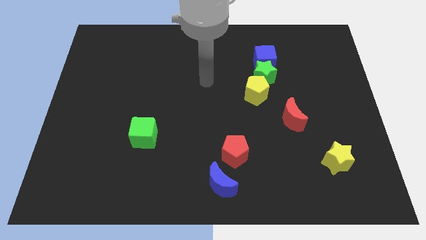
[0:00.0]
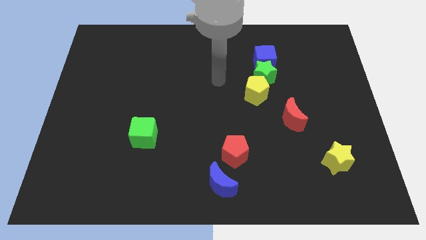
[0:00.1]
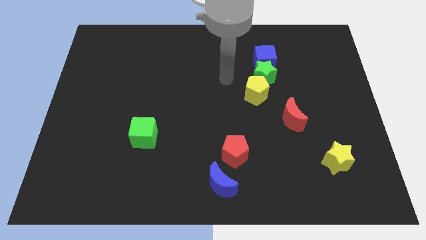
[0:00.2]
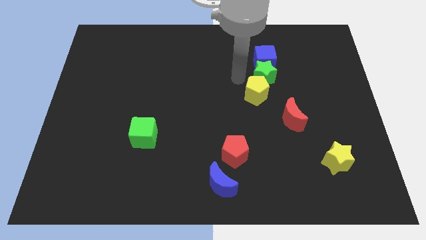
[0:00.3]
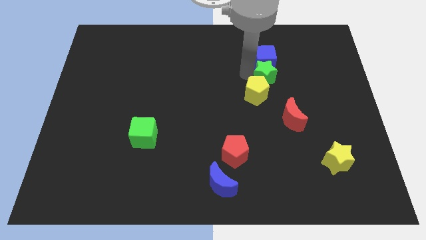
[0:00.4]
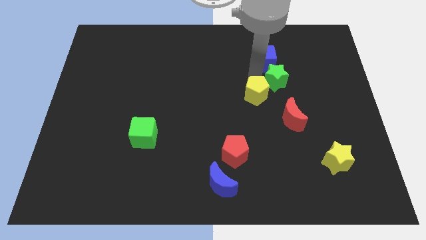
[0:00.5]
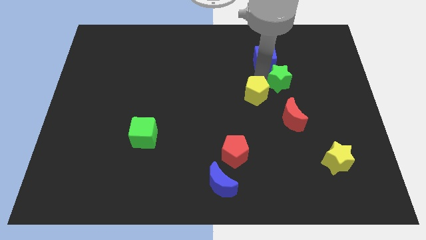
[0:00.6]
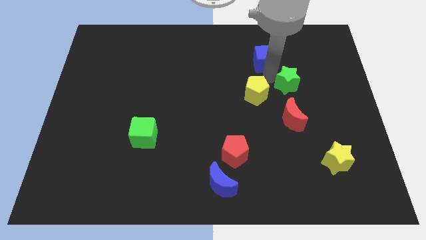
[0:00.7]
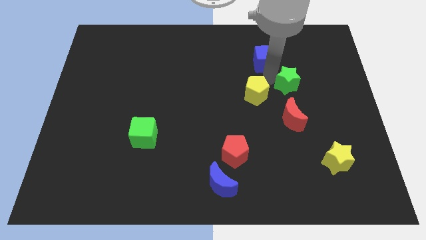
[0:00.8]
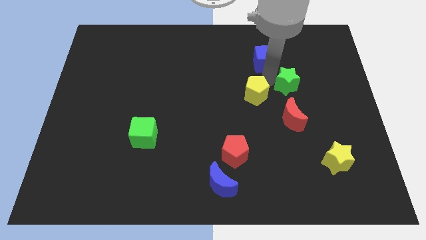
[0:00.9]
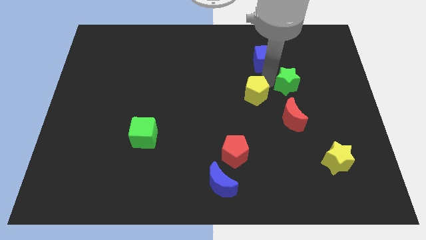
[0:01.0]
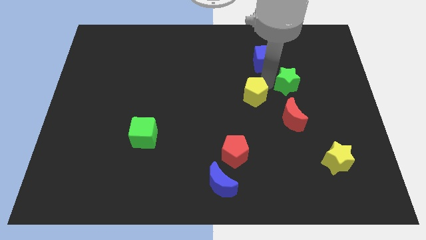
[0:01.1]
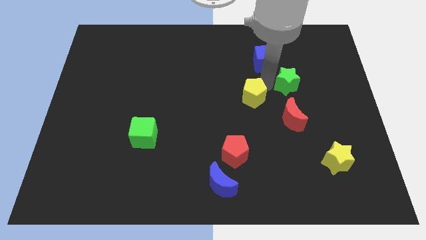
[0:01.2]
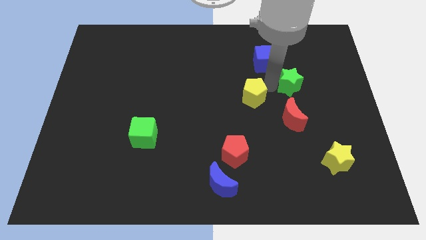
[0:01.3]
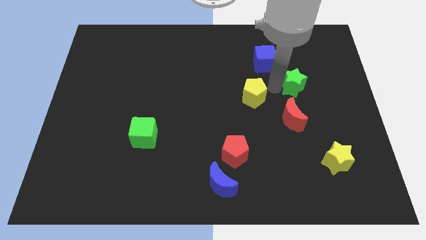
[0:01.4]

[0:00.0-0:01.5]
separate the yellow pentagon from the green star

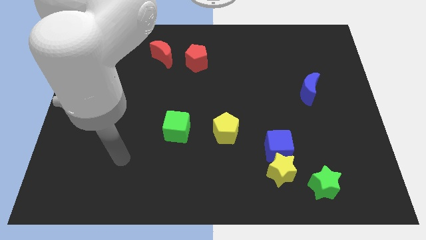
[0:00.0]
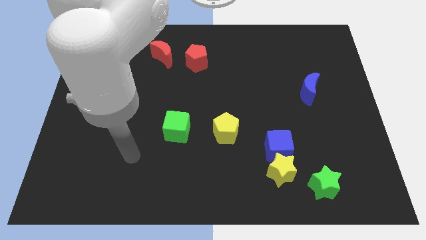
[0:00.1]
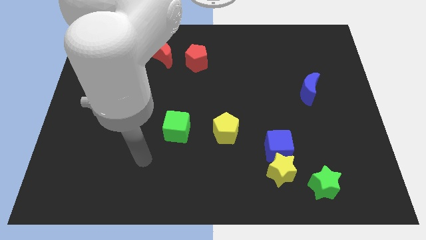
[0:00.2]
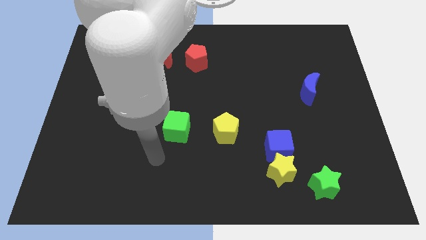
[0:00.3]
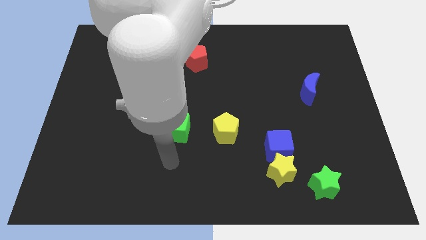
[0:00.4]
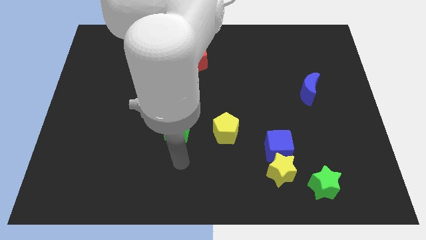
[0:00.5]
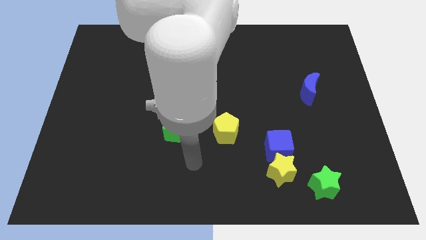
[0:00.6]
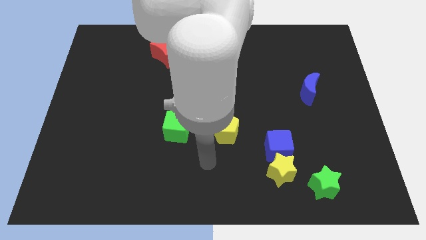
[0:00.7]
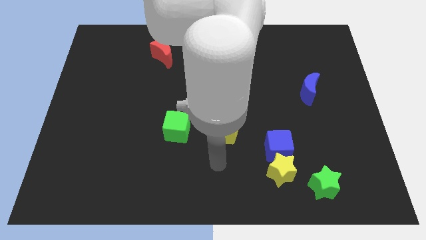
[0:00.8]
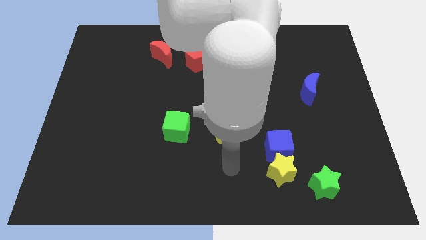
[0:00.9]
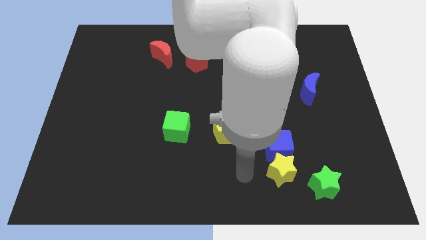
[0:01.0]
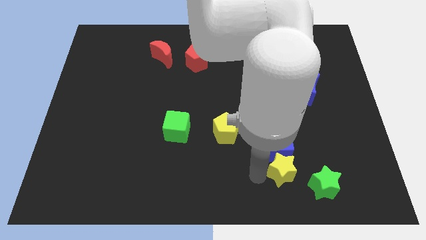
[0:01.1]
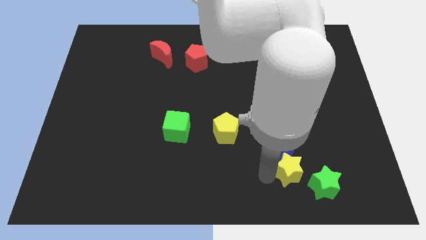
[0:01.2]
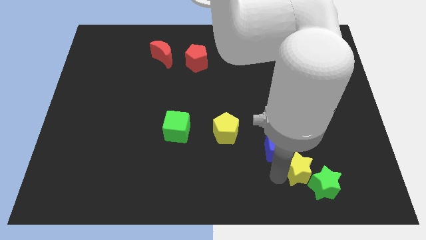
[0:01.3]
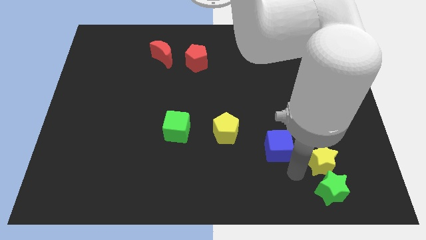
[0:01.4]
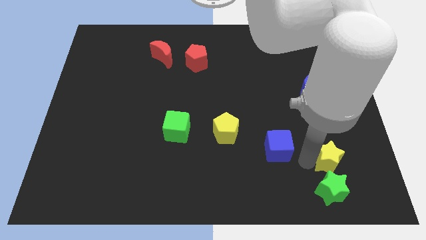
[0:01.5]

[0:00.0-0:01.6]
separate the blue cube from the yellow star

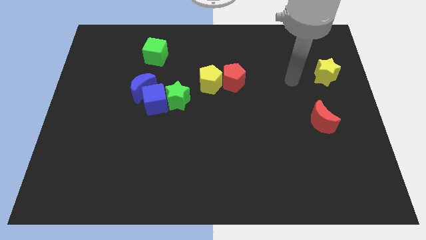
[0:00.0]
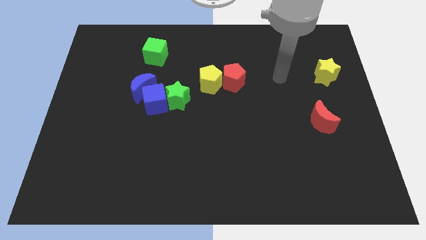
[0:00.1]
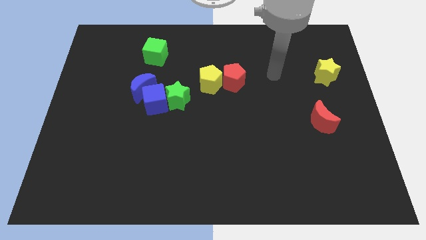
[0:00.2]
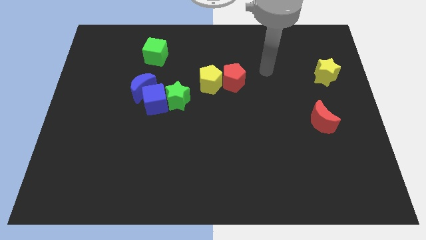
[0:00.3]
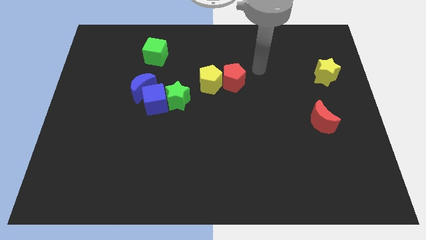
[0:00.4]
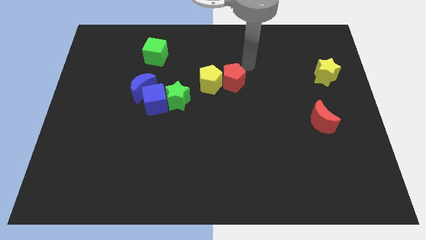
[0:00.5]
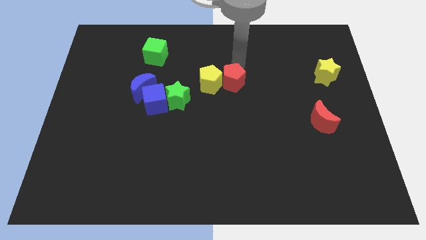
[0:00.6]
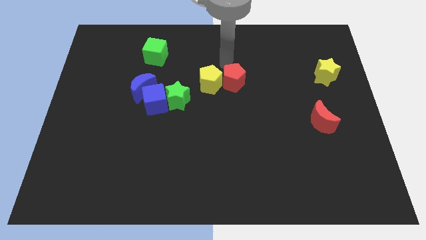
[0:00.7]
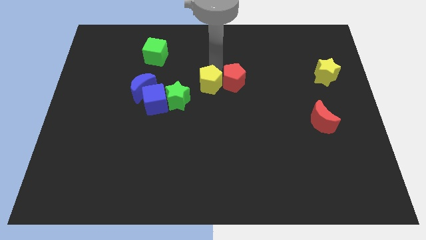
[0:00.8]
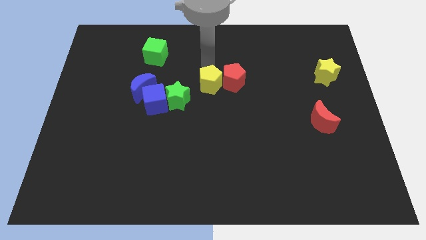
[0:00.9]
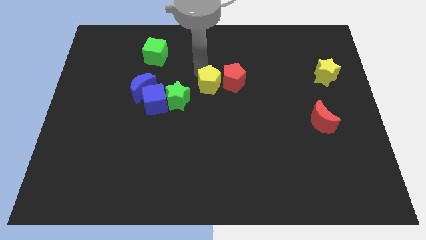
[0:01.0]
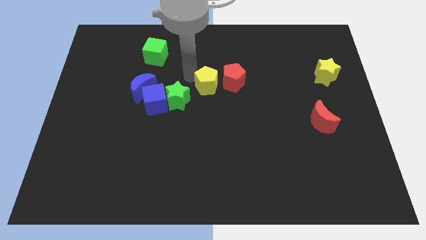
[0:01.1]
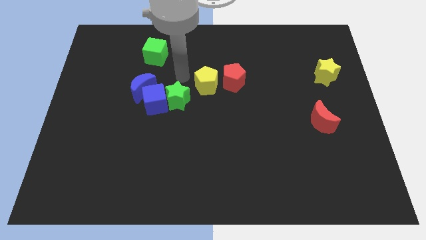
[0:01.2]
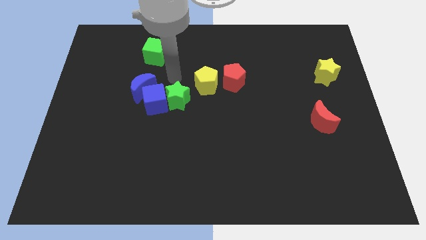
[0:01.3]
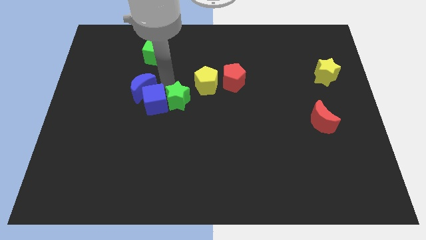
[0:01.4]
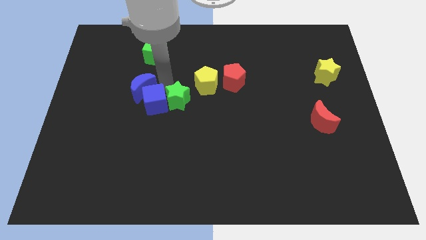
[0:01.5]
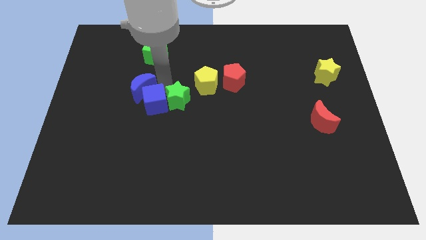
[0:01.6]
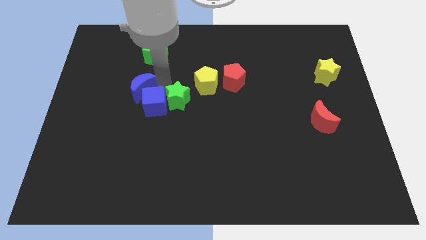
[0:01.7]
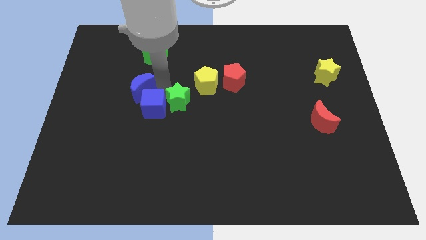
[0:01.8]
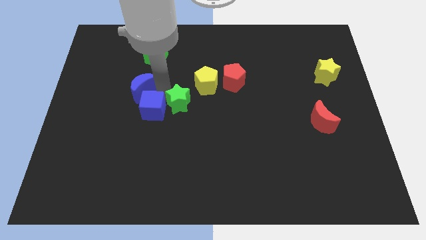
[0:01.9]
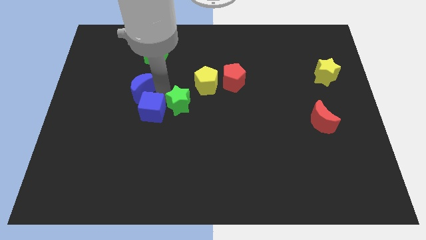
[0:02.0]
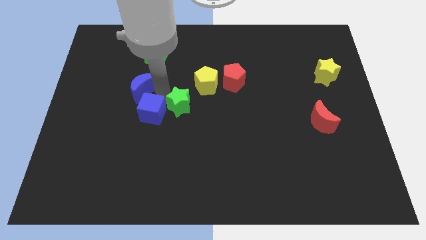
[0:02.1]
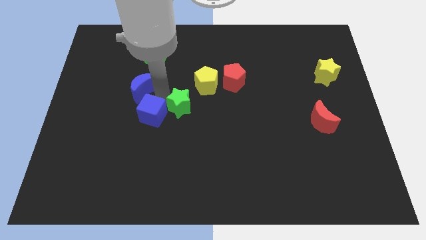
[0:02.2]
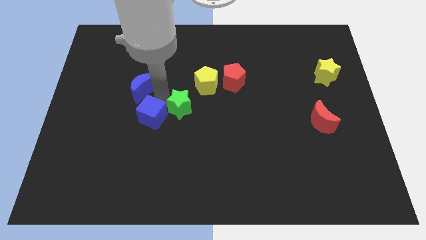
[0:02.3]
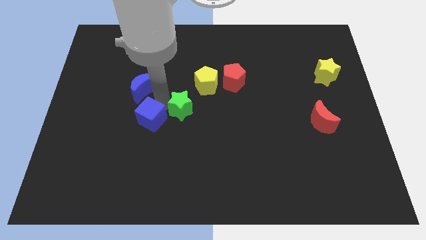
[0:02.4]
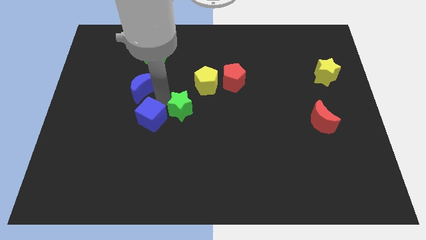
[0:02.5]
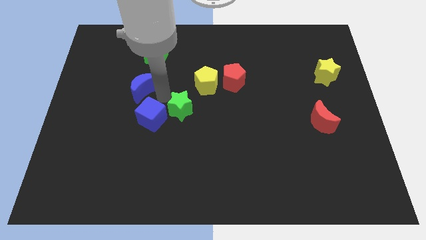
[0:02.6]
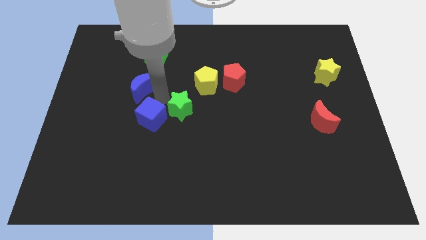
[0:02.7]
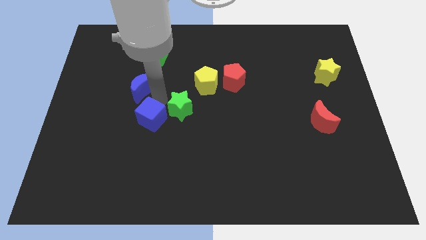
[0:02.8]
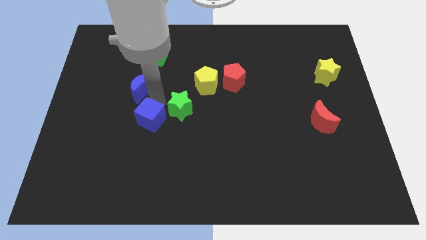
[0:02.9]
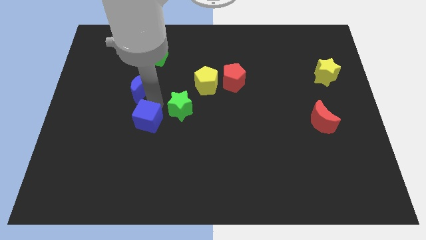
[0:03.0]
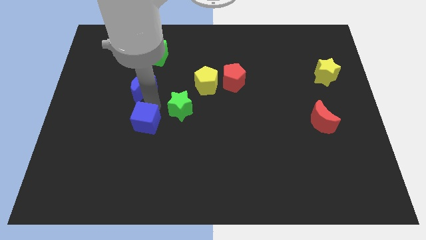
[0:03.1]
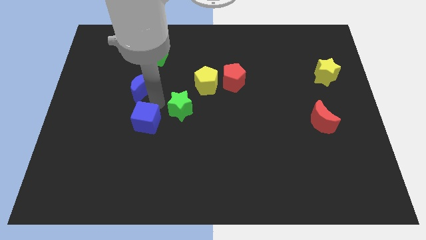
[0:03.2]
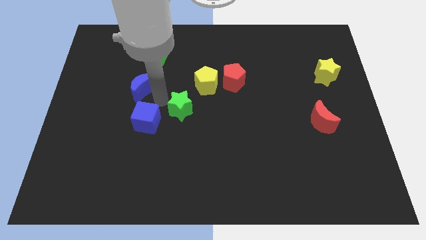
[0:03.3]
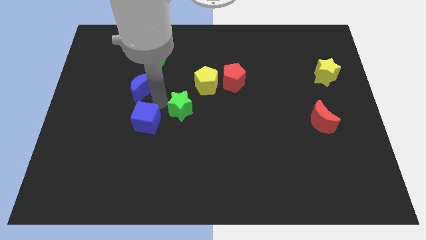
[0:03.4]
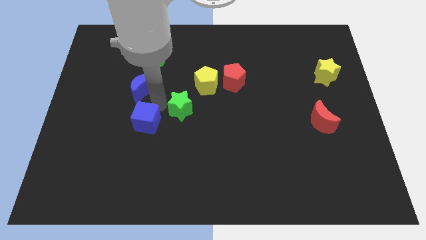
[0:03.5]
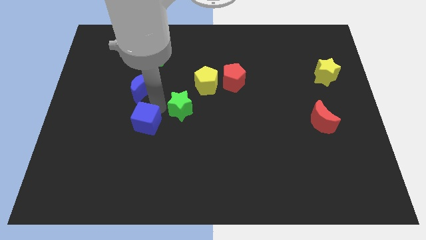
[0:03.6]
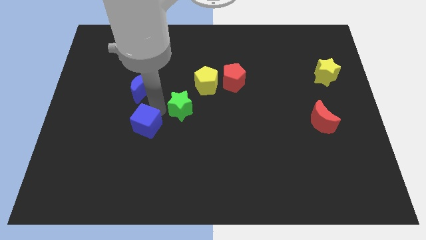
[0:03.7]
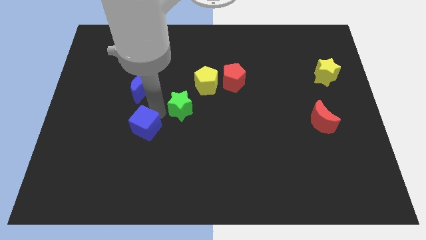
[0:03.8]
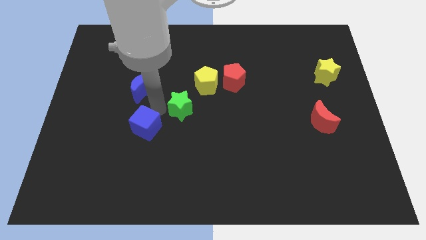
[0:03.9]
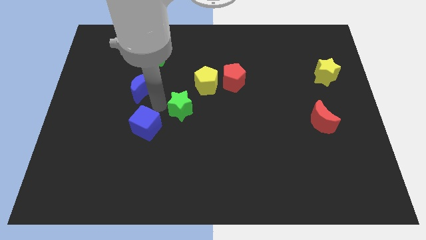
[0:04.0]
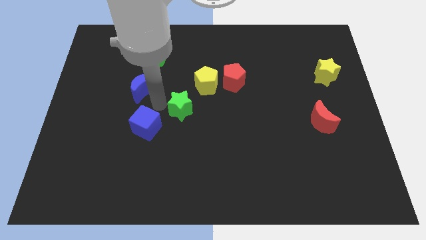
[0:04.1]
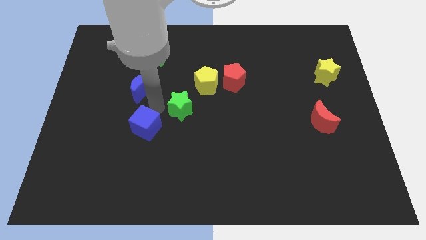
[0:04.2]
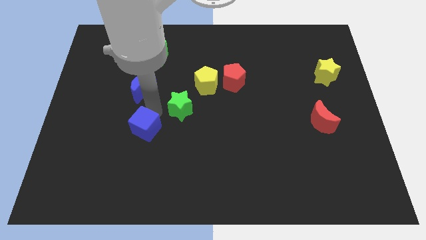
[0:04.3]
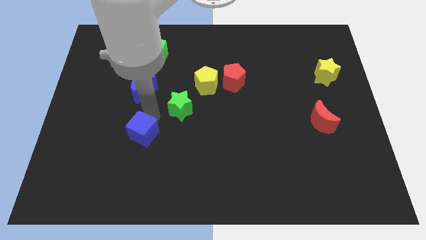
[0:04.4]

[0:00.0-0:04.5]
move the blue cube away from the blue moon and green star

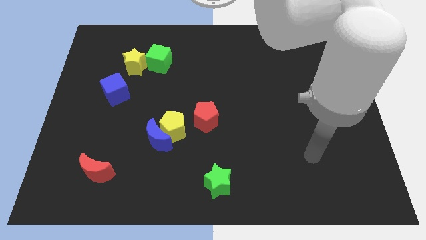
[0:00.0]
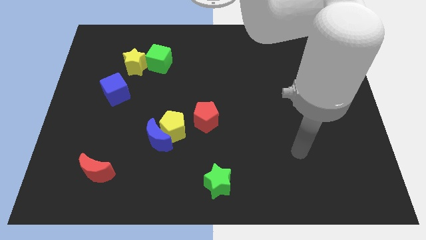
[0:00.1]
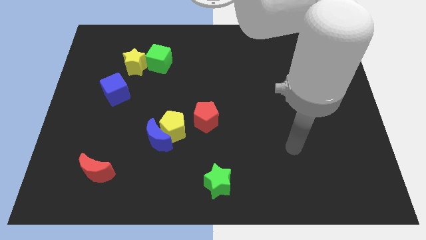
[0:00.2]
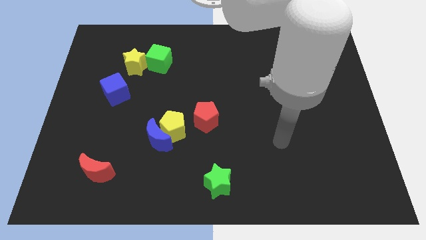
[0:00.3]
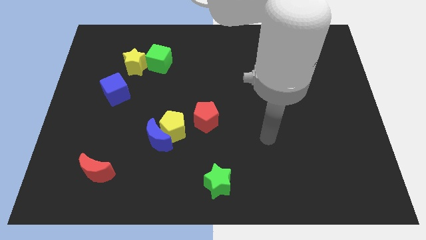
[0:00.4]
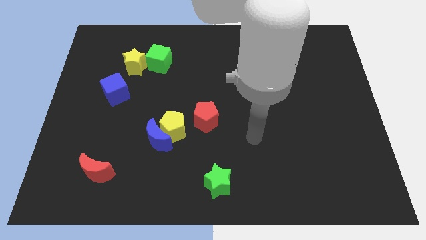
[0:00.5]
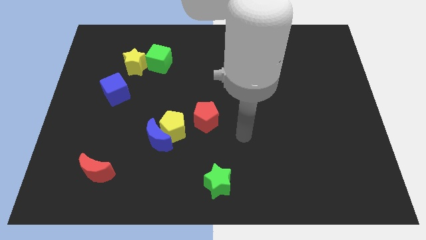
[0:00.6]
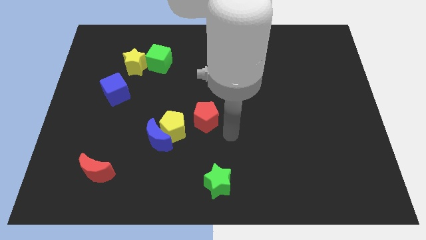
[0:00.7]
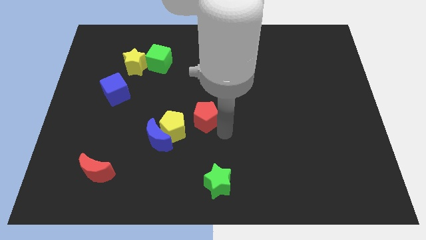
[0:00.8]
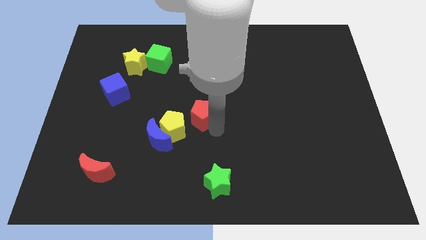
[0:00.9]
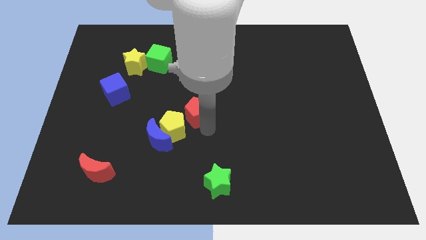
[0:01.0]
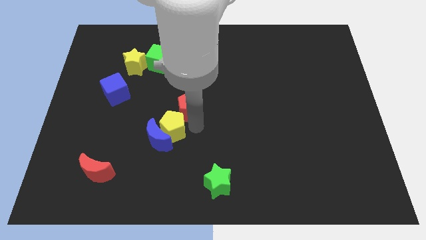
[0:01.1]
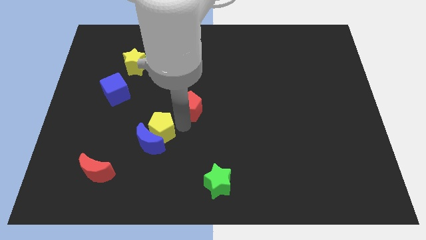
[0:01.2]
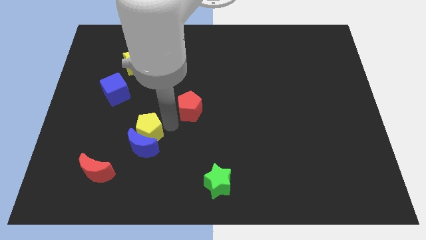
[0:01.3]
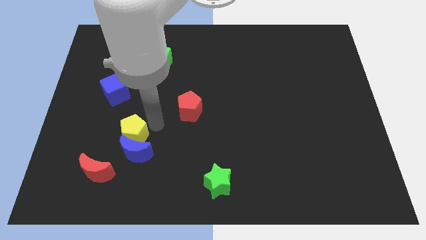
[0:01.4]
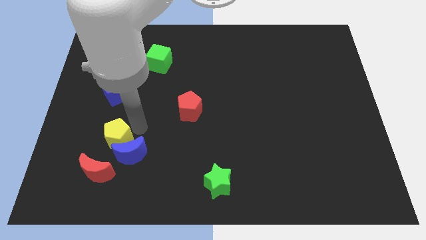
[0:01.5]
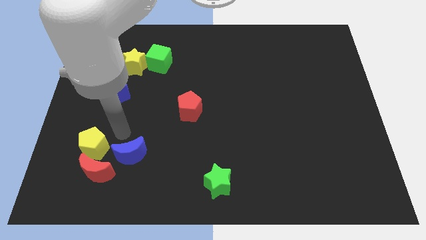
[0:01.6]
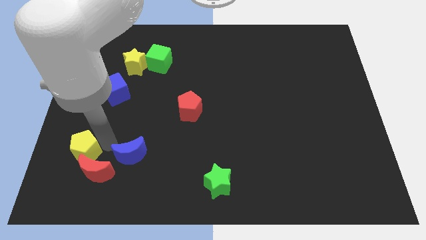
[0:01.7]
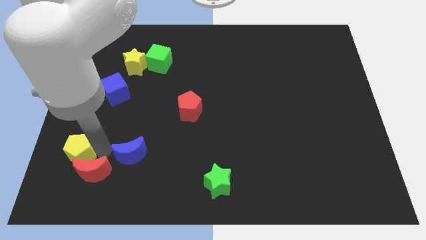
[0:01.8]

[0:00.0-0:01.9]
move the blue moon away from the yellow pentagon

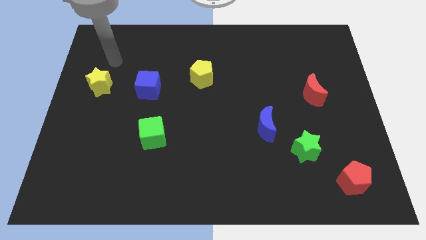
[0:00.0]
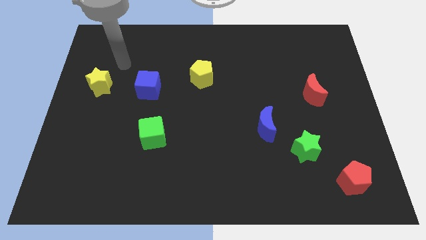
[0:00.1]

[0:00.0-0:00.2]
pull the blue moon apart from the green star
